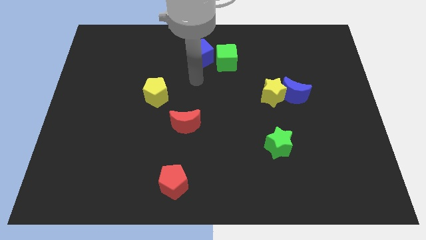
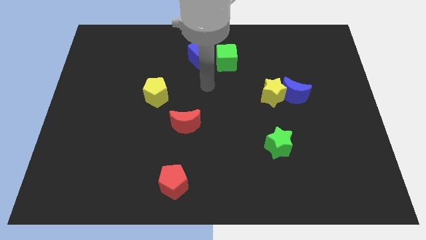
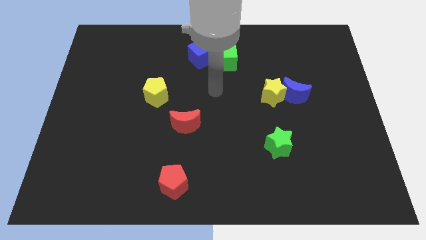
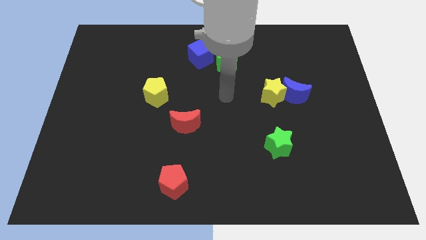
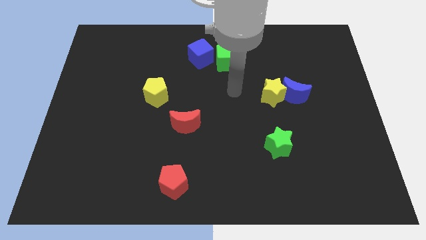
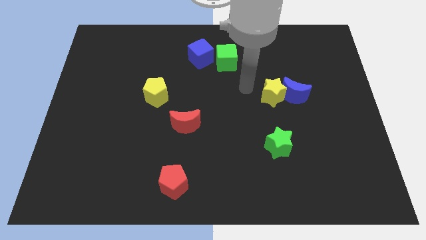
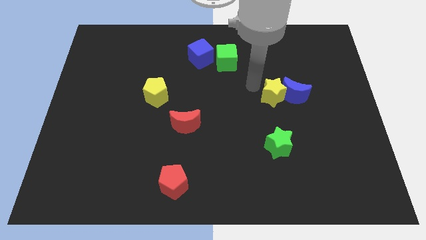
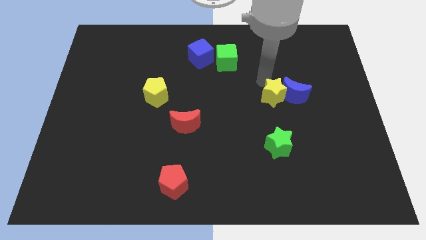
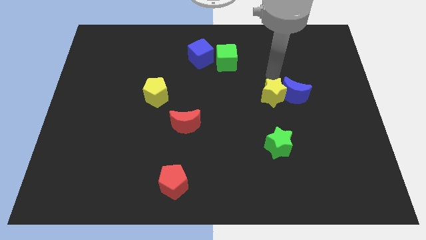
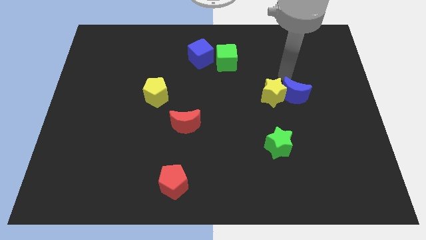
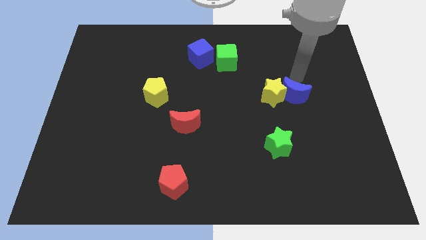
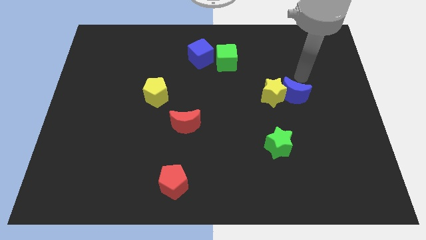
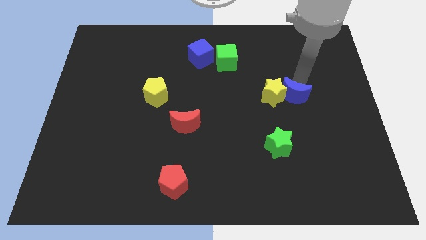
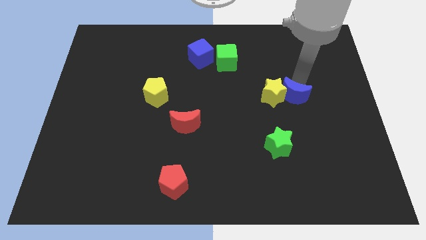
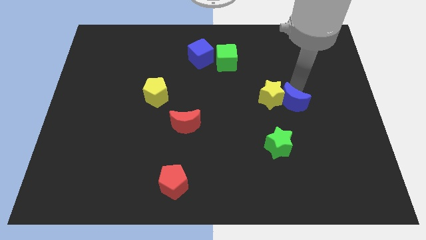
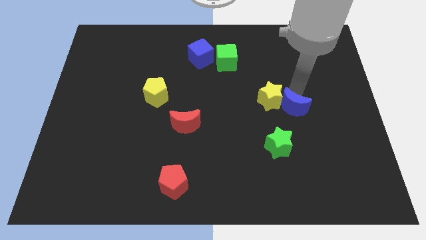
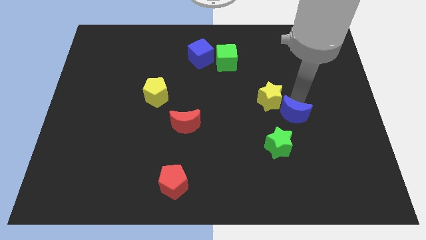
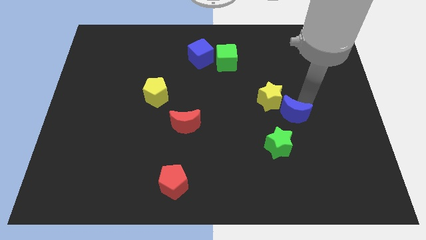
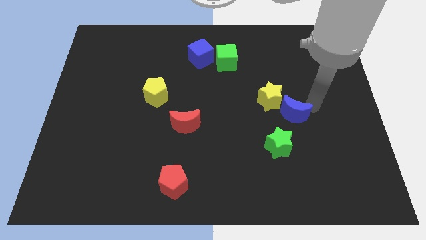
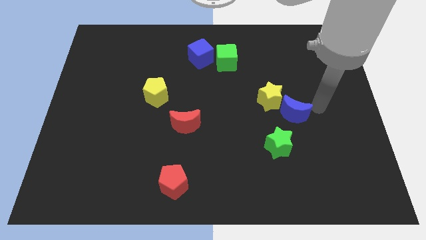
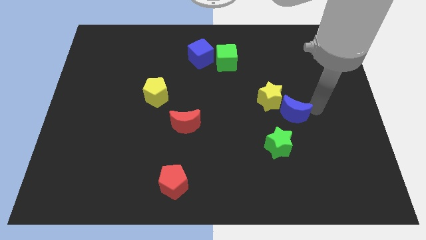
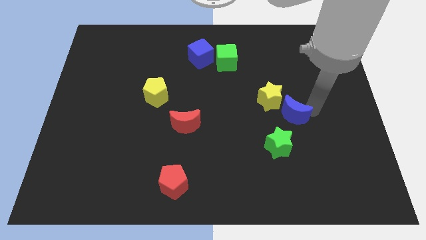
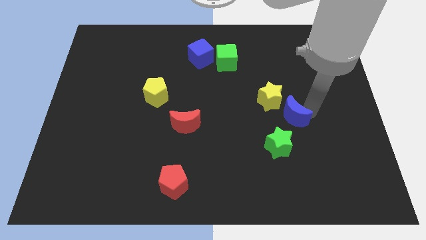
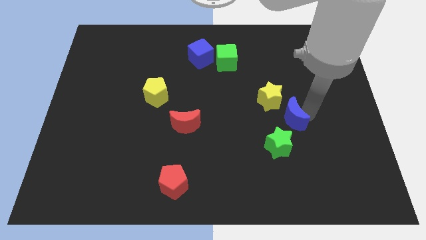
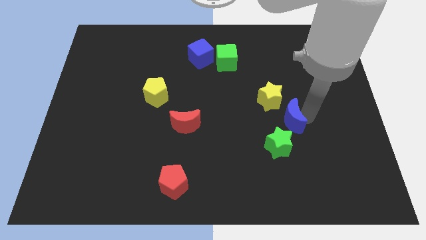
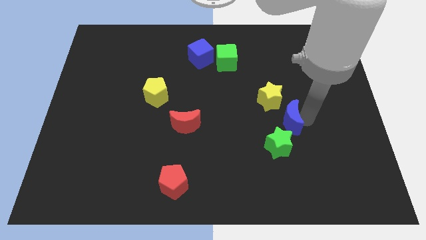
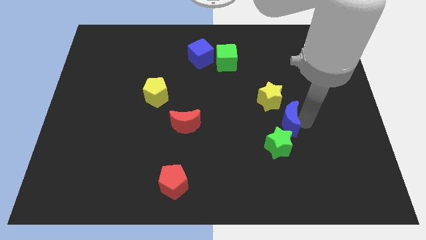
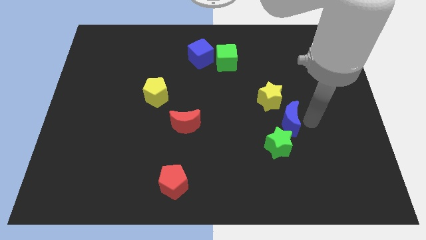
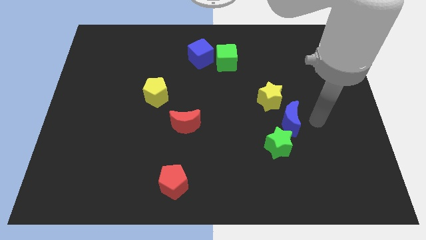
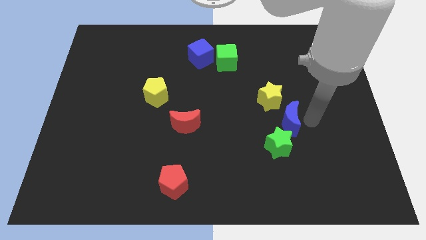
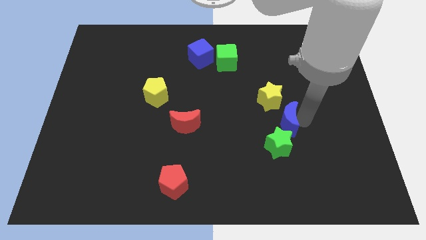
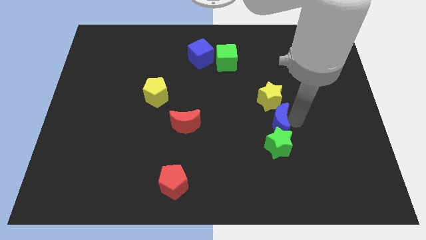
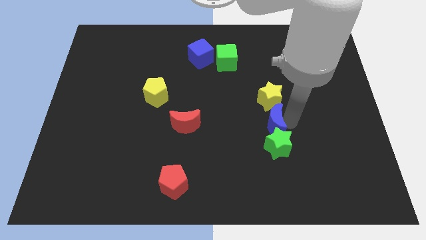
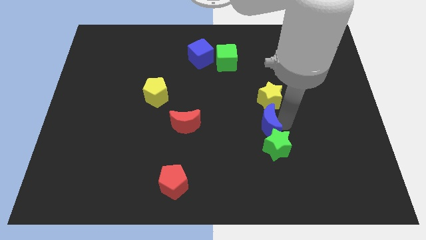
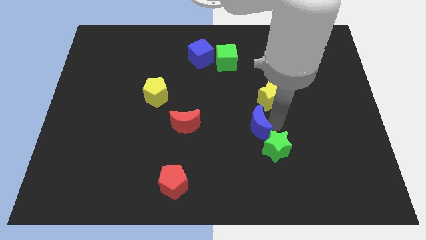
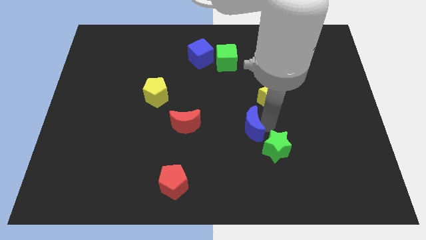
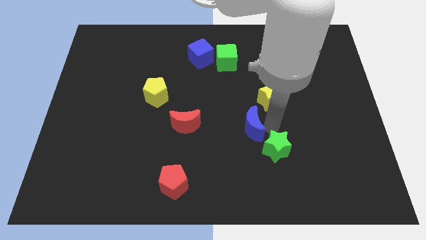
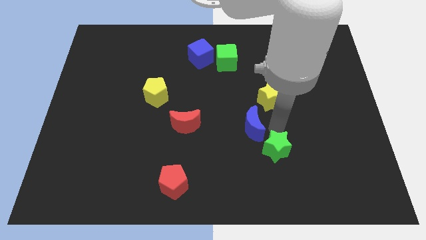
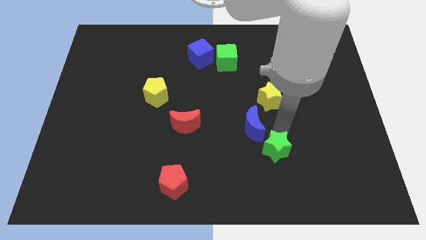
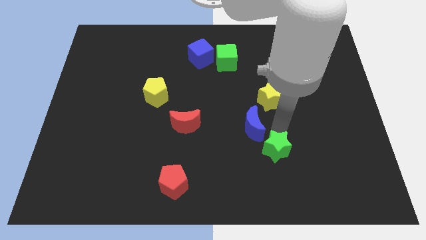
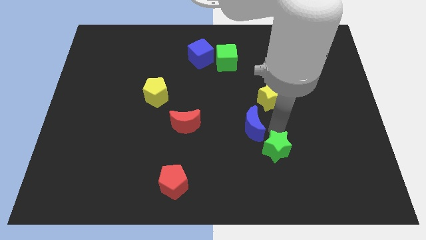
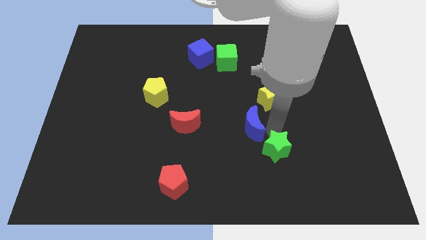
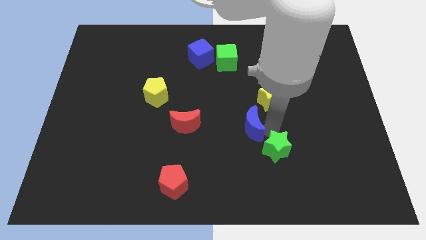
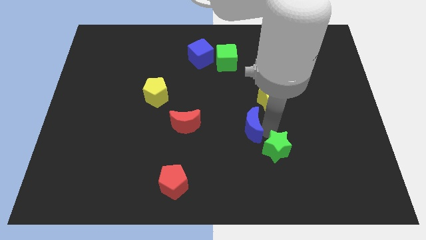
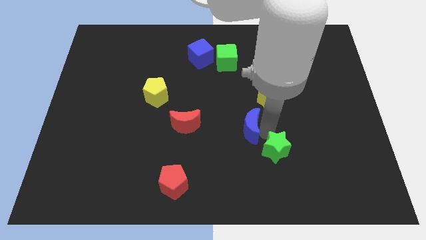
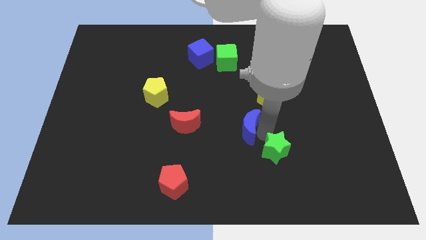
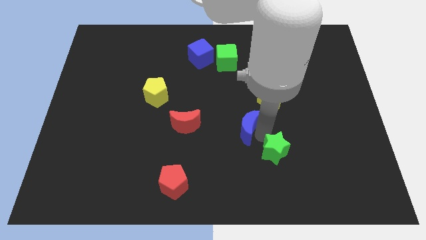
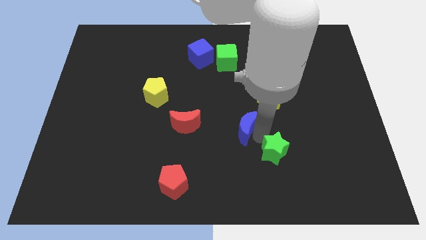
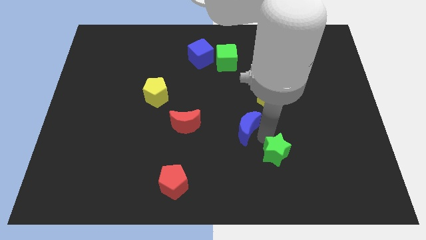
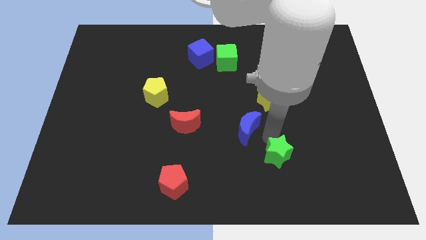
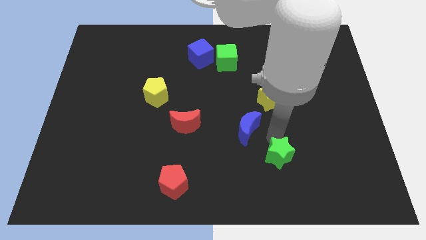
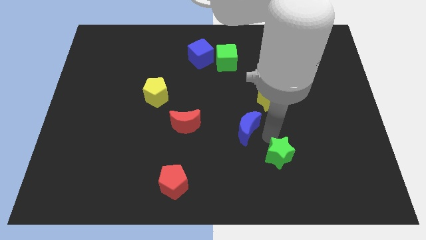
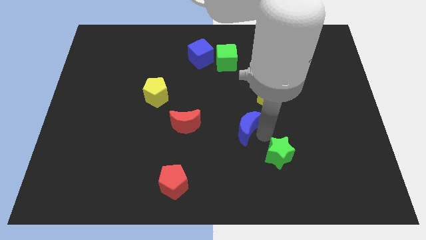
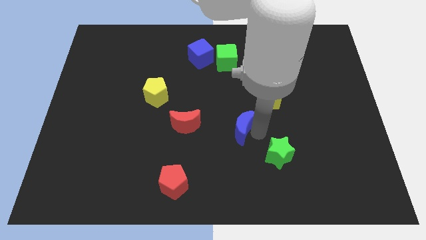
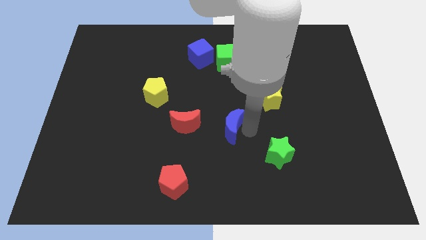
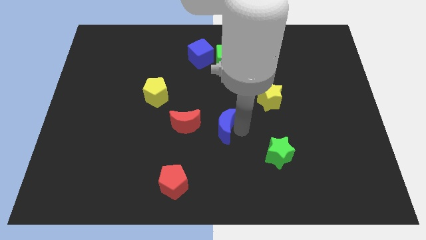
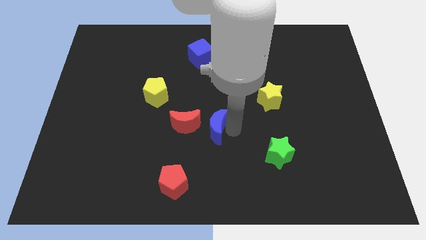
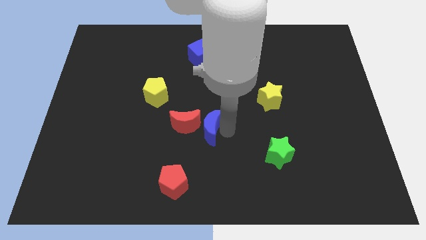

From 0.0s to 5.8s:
slide the blue moon towards the red moon

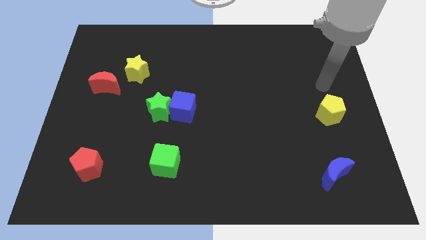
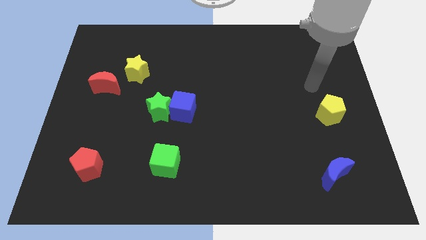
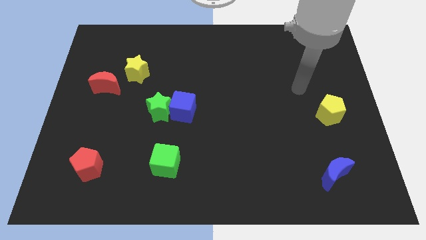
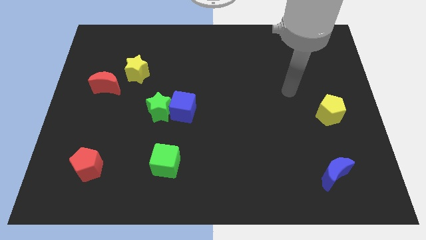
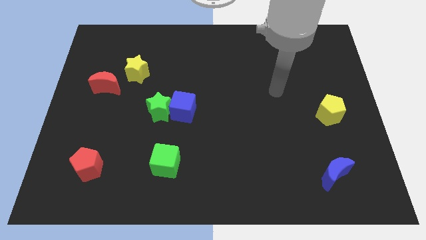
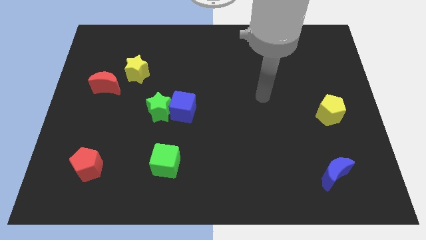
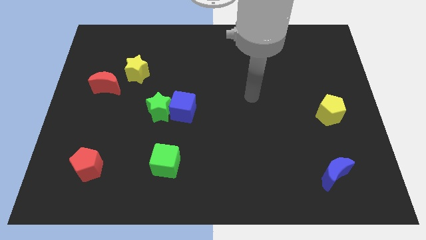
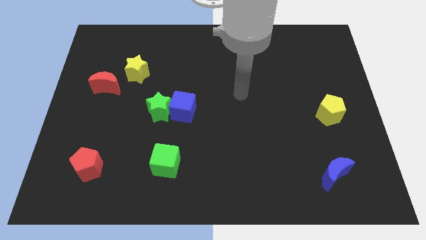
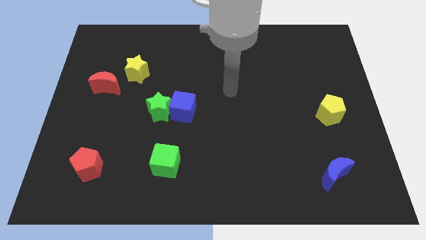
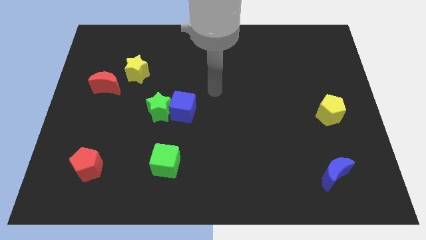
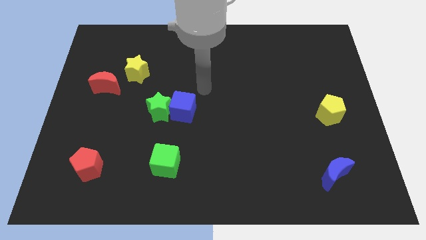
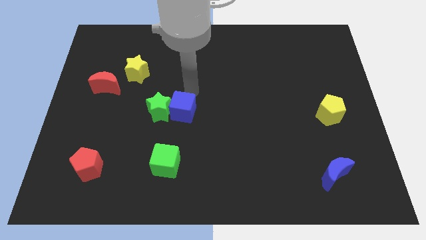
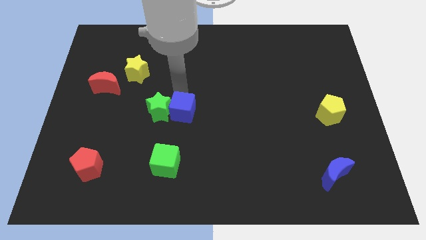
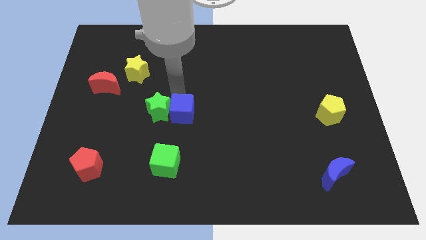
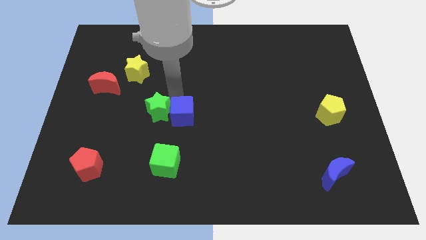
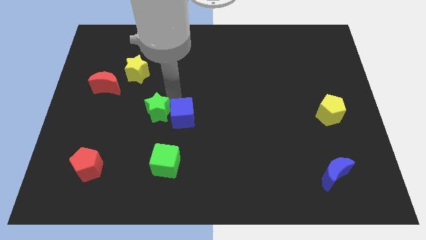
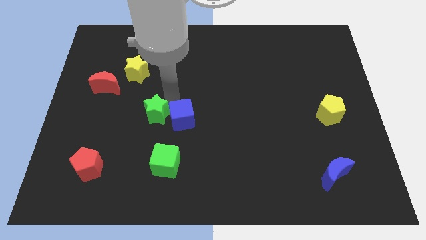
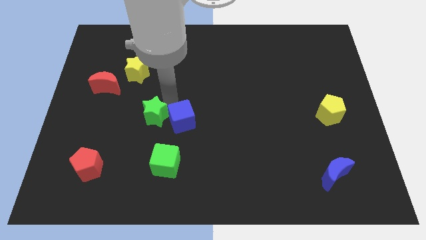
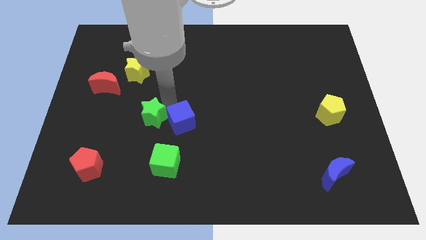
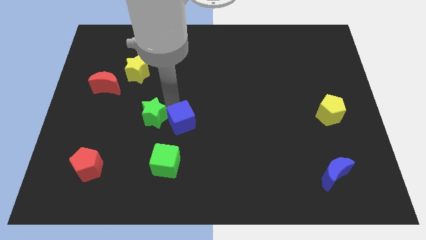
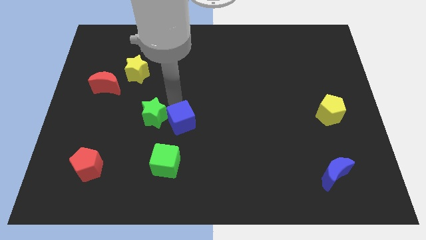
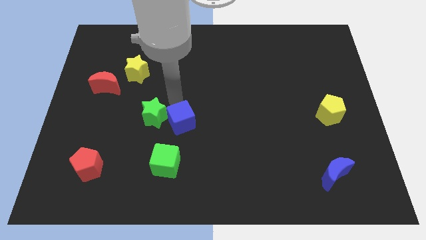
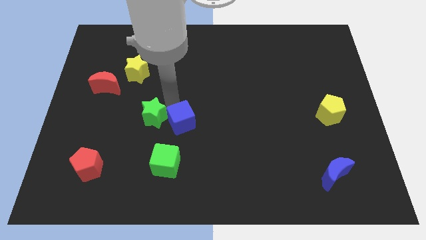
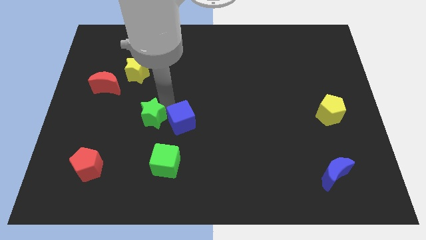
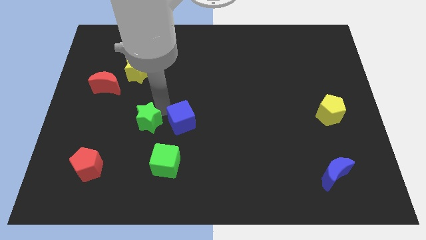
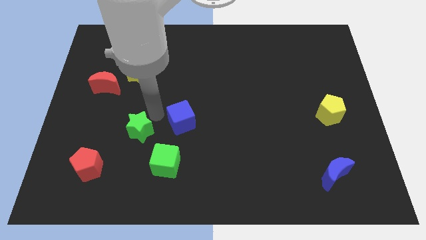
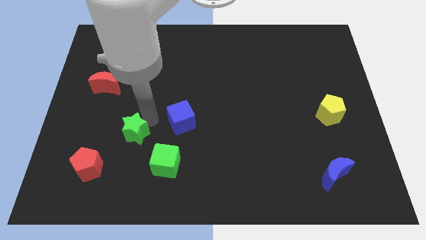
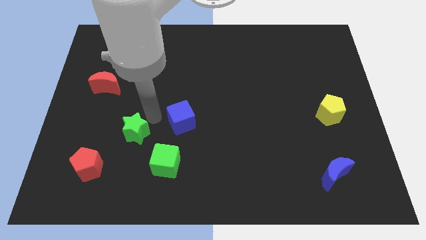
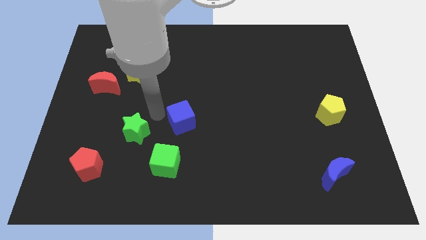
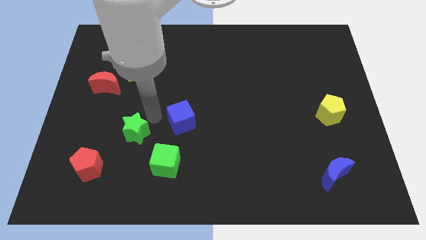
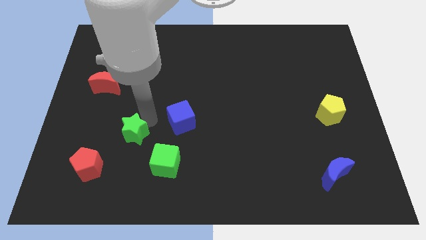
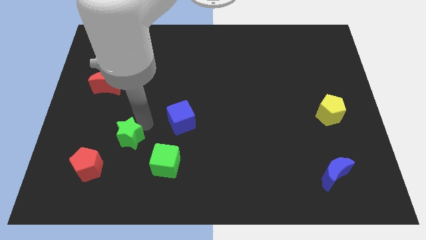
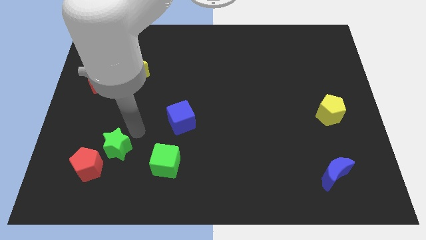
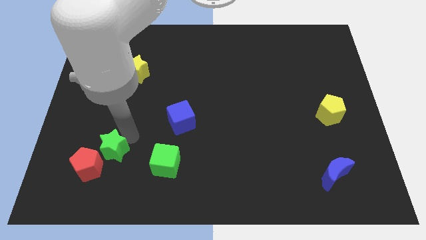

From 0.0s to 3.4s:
put the green star close to the red pentagon
